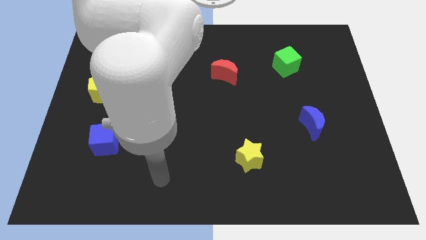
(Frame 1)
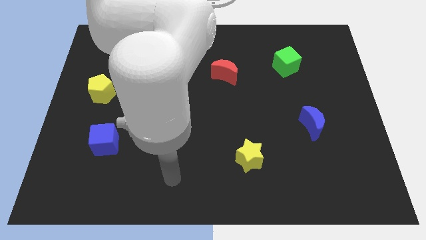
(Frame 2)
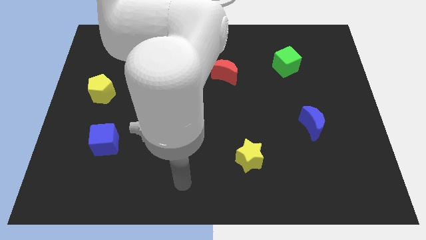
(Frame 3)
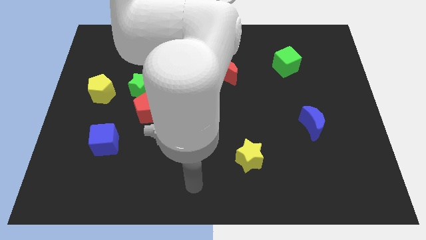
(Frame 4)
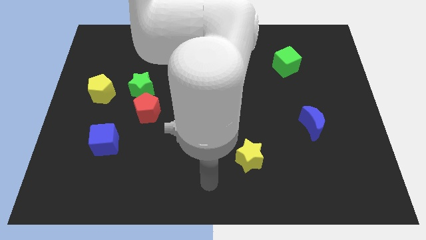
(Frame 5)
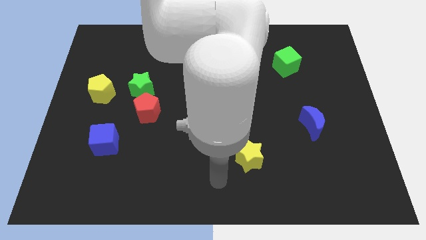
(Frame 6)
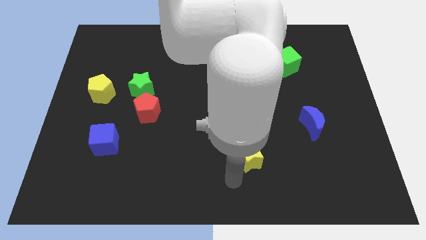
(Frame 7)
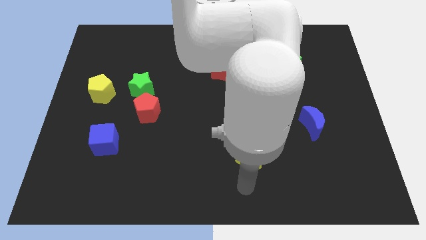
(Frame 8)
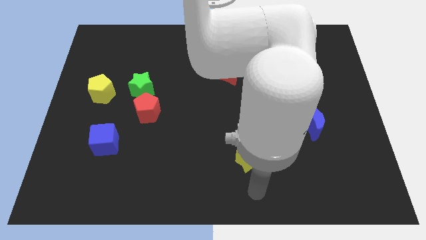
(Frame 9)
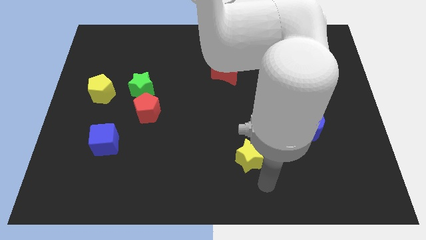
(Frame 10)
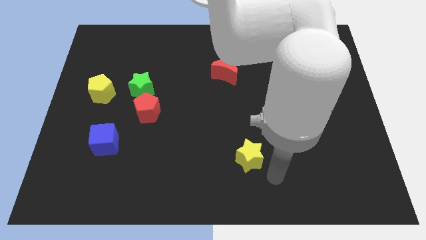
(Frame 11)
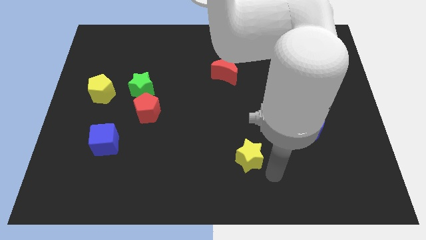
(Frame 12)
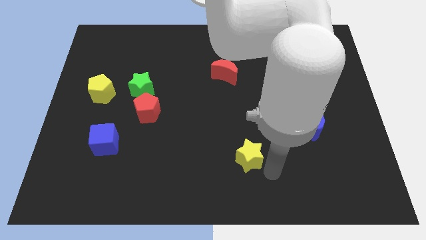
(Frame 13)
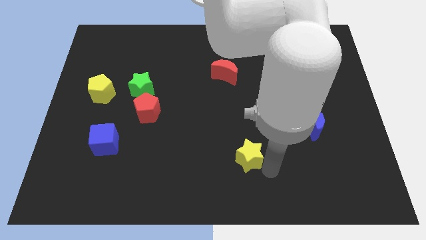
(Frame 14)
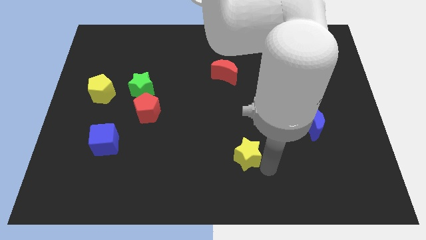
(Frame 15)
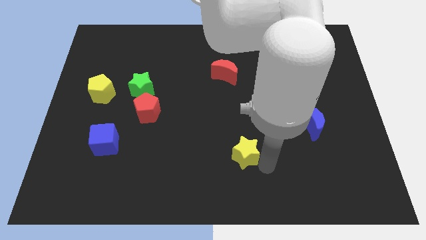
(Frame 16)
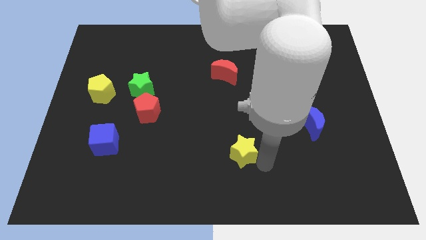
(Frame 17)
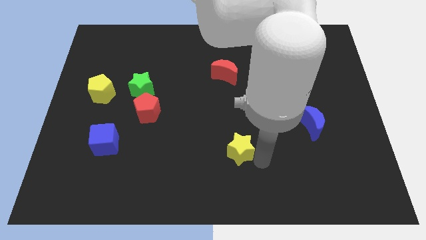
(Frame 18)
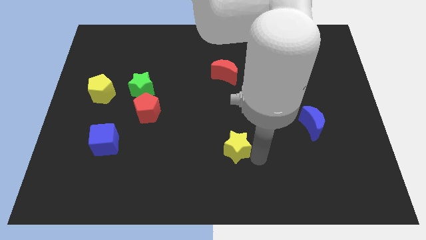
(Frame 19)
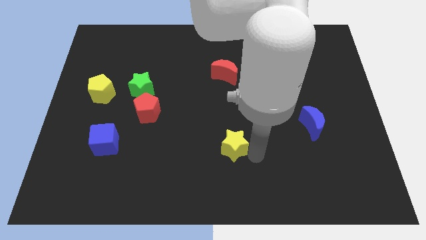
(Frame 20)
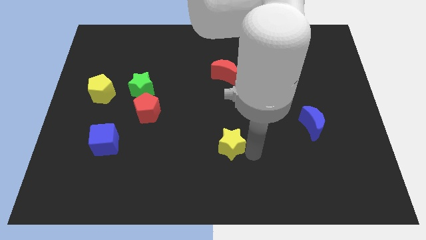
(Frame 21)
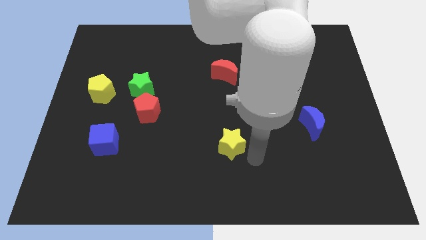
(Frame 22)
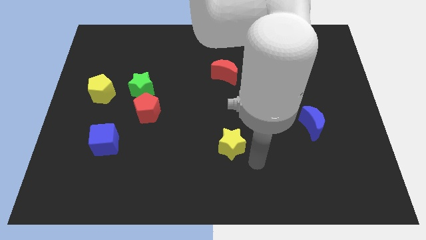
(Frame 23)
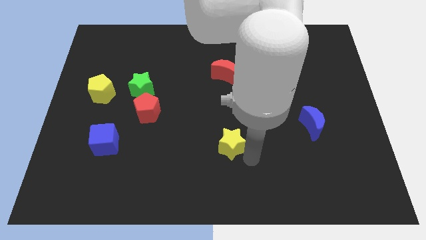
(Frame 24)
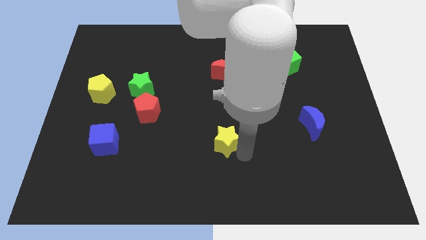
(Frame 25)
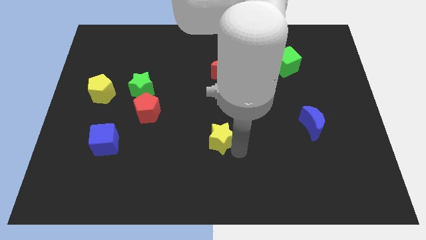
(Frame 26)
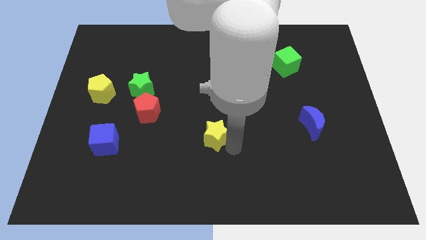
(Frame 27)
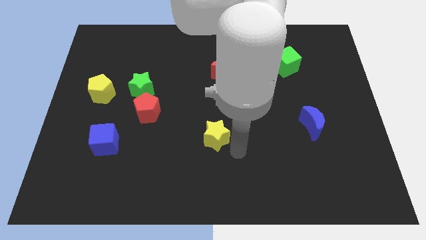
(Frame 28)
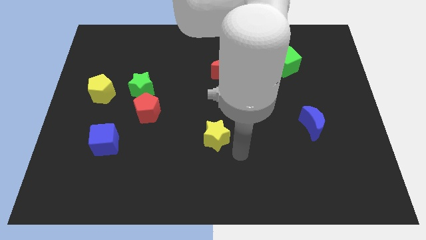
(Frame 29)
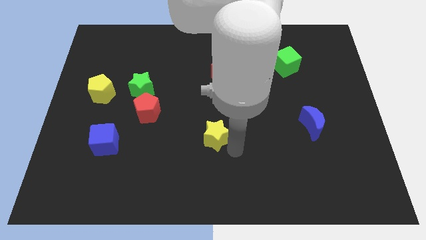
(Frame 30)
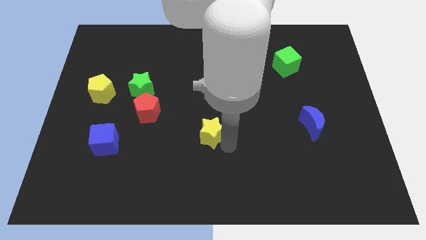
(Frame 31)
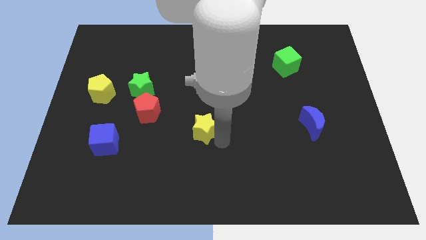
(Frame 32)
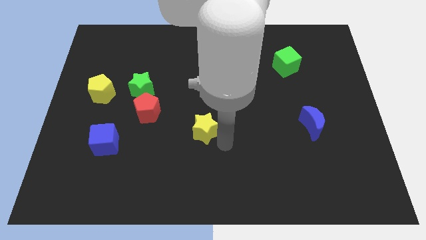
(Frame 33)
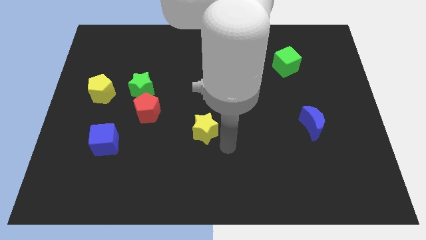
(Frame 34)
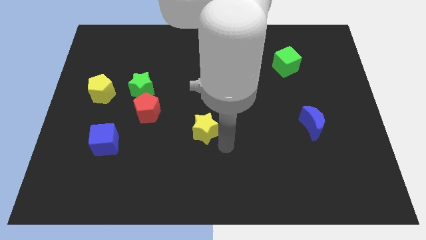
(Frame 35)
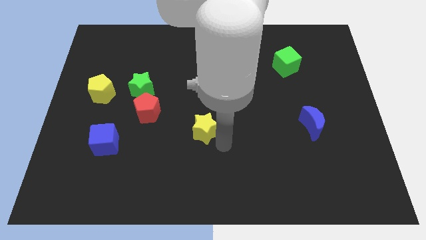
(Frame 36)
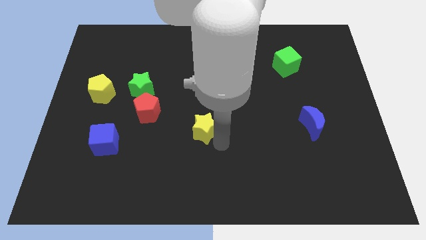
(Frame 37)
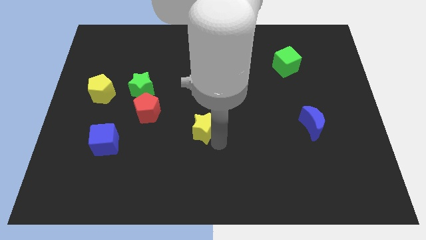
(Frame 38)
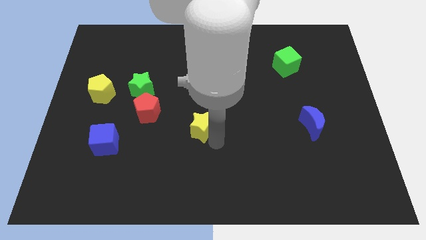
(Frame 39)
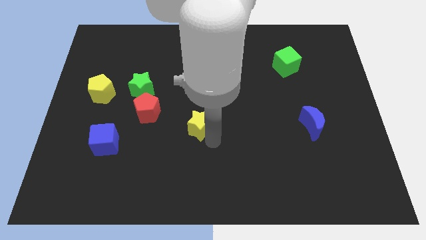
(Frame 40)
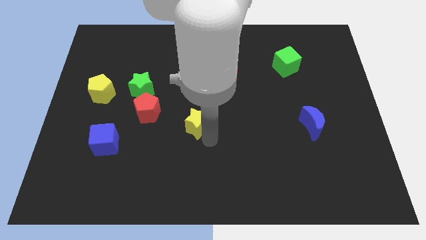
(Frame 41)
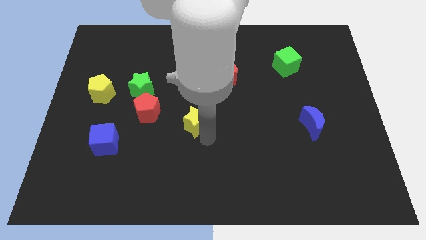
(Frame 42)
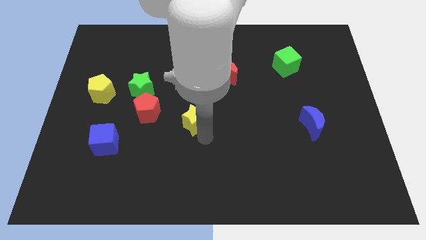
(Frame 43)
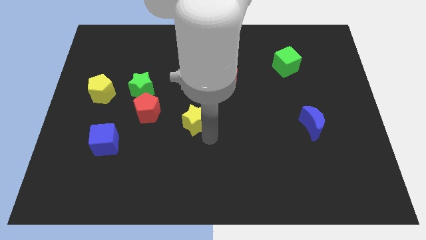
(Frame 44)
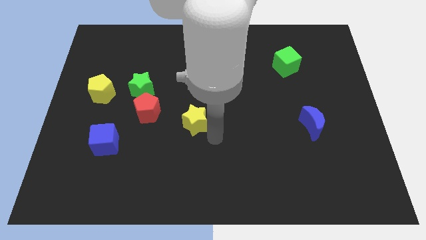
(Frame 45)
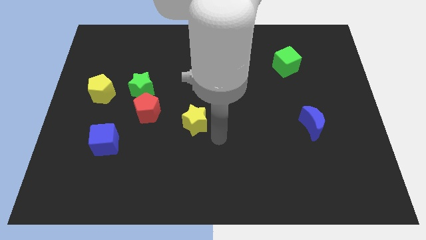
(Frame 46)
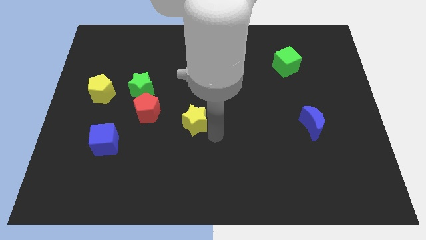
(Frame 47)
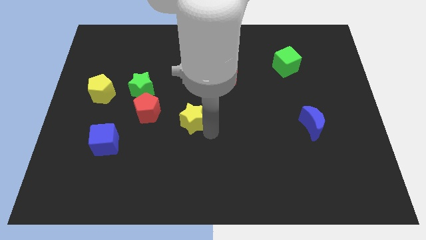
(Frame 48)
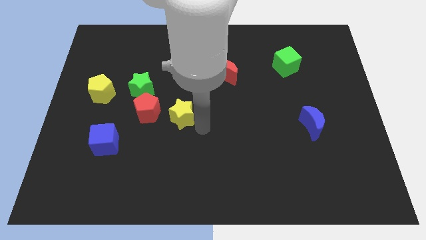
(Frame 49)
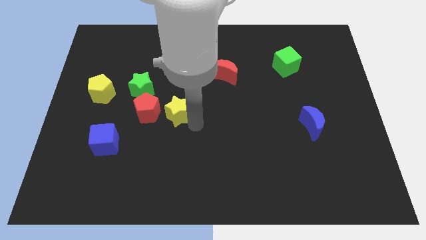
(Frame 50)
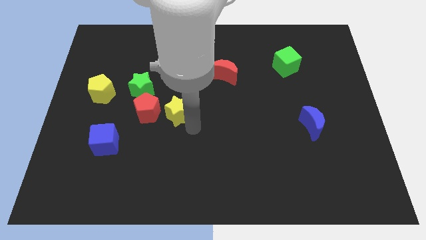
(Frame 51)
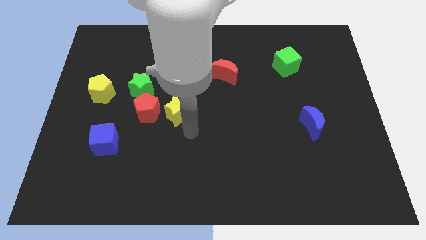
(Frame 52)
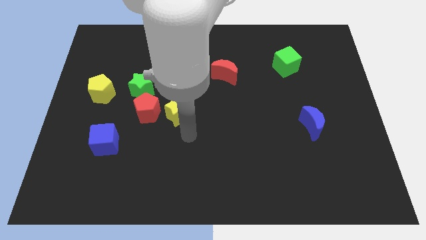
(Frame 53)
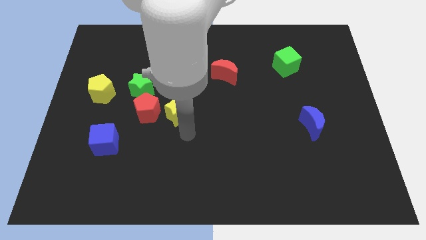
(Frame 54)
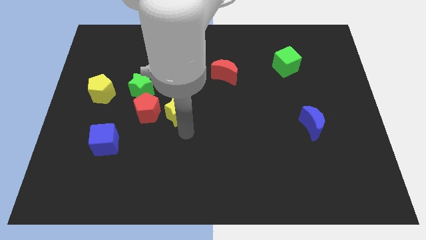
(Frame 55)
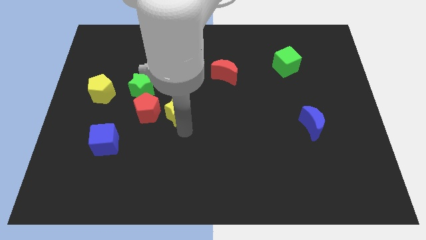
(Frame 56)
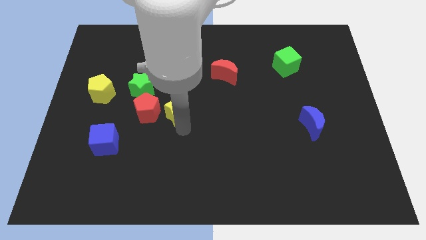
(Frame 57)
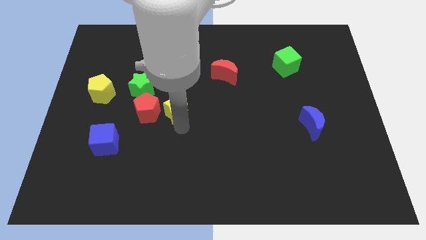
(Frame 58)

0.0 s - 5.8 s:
push the yellow star up and to the left

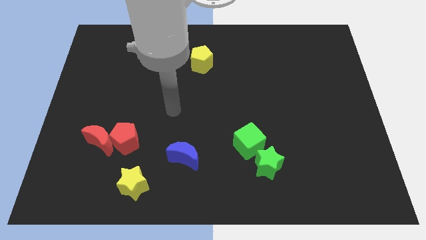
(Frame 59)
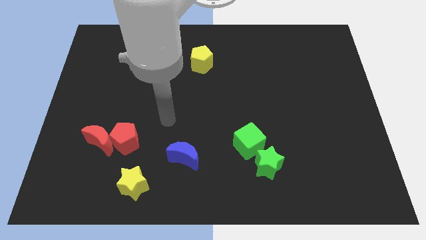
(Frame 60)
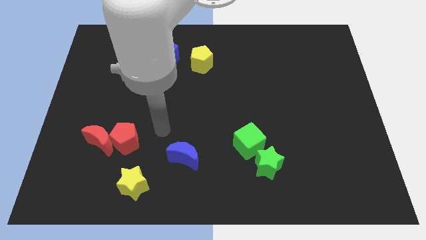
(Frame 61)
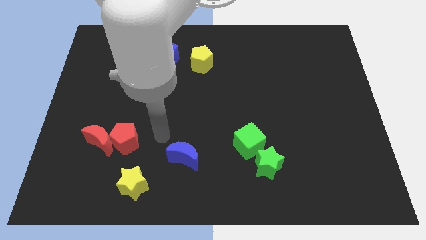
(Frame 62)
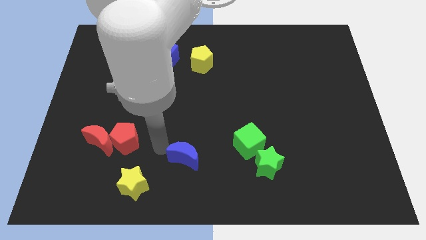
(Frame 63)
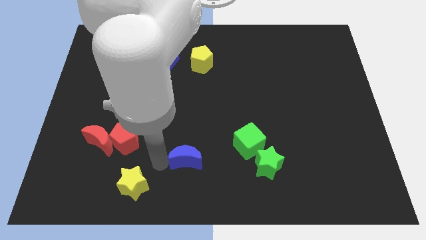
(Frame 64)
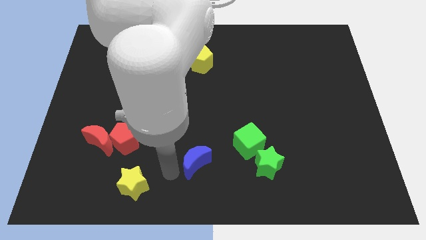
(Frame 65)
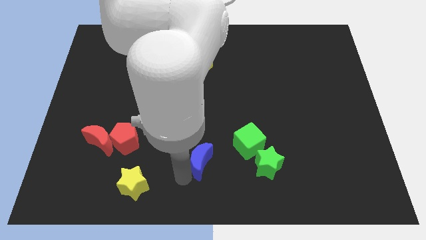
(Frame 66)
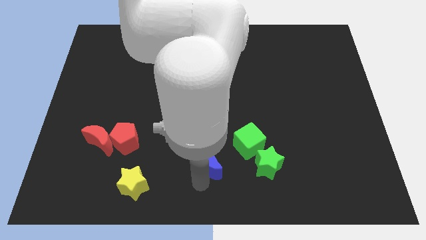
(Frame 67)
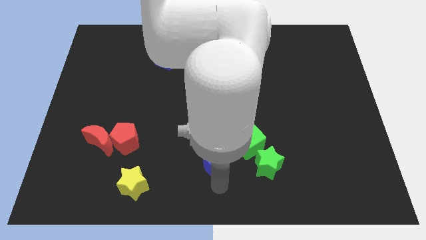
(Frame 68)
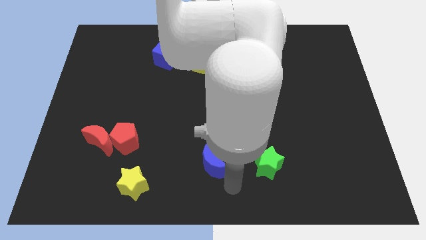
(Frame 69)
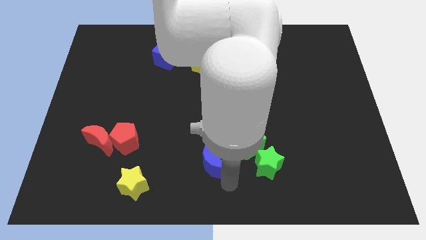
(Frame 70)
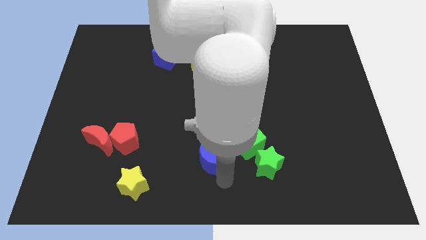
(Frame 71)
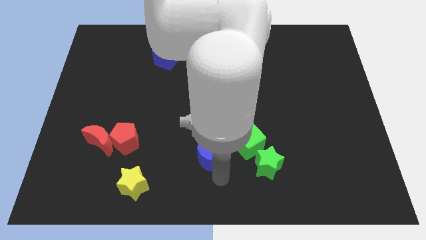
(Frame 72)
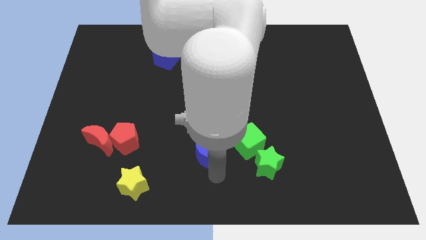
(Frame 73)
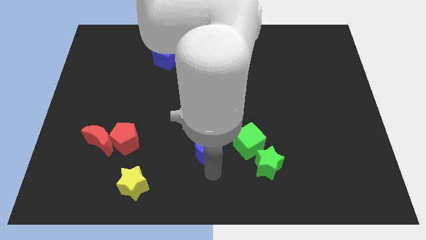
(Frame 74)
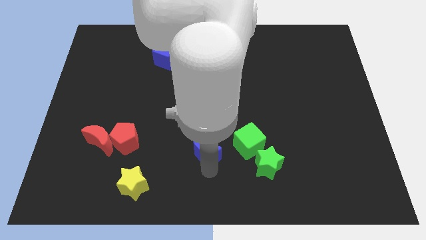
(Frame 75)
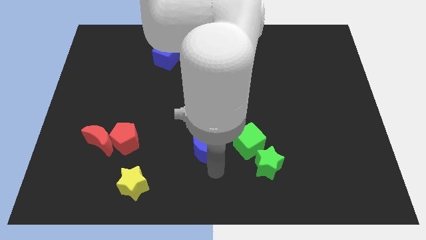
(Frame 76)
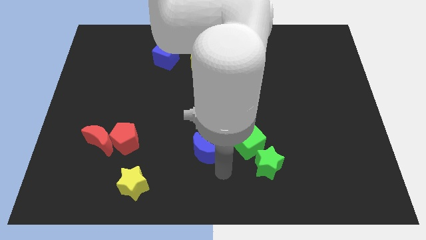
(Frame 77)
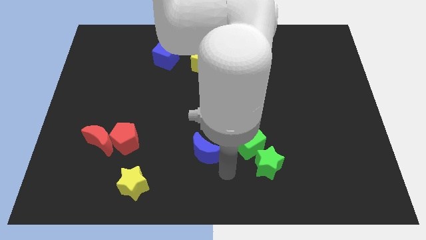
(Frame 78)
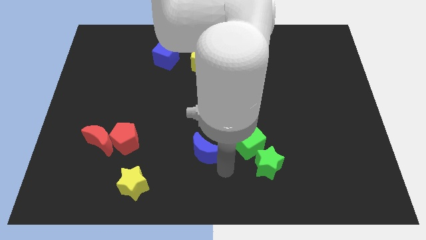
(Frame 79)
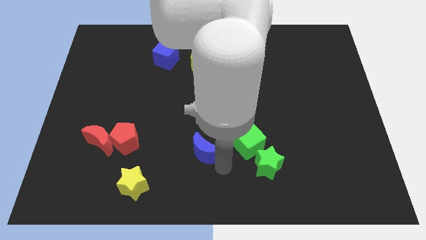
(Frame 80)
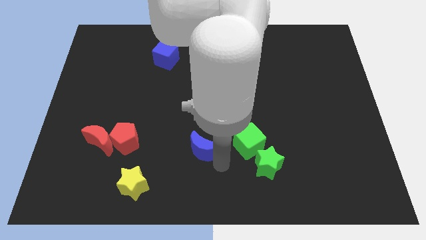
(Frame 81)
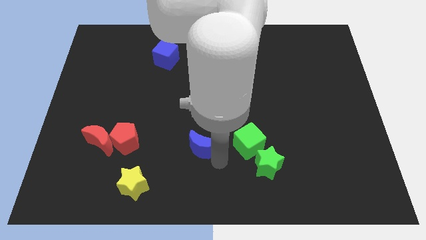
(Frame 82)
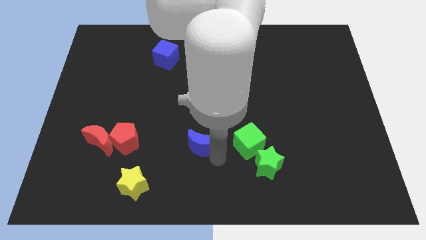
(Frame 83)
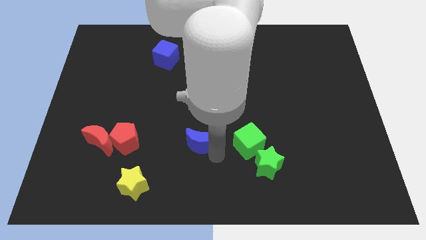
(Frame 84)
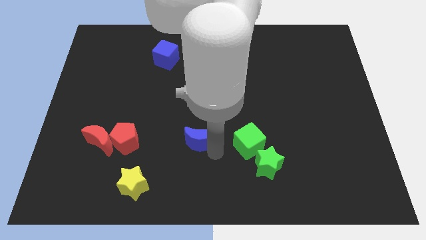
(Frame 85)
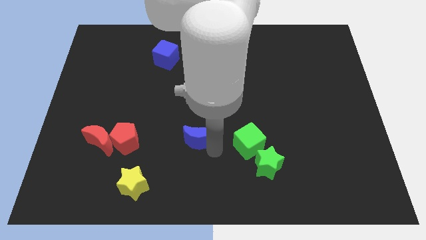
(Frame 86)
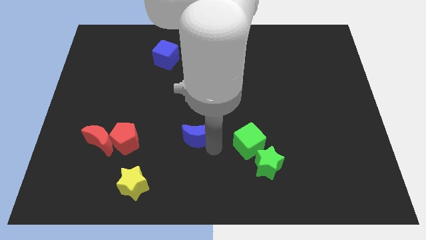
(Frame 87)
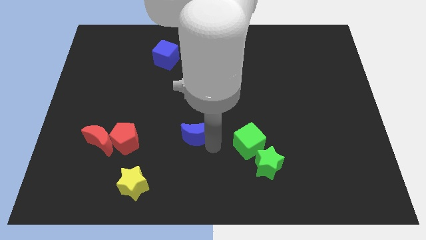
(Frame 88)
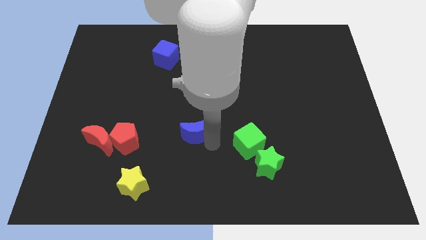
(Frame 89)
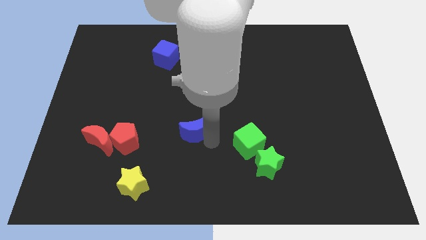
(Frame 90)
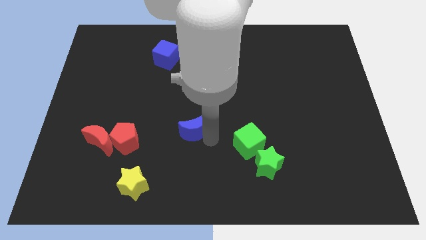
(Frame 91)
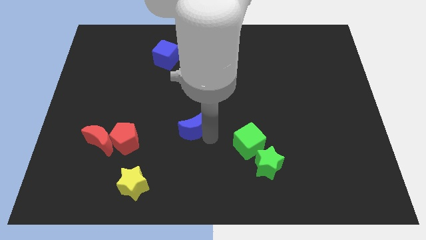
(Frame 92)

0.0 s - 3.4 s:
slide the blue moon upwards somewhat
